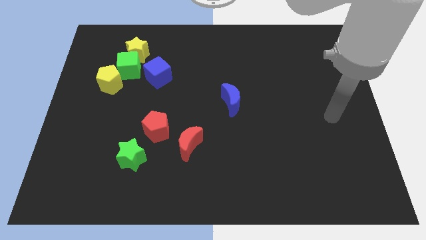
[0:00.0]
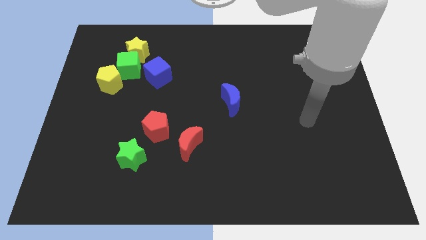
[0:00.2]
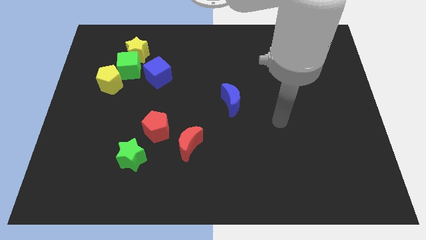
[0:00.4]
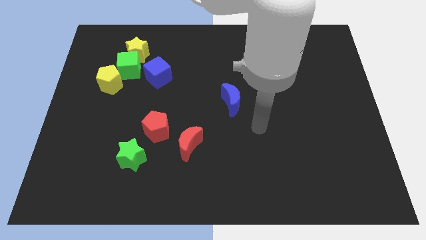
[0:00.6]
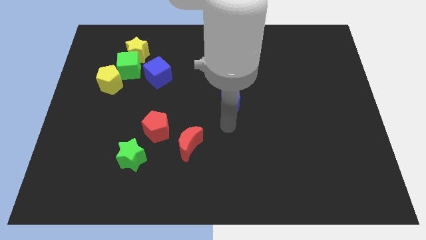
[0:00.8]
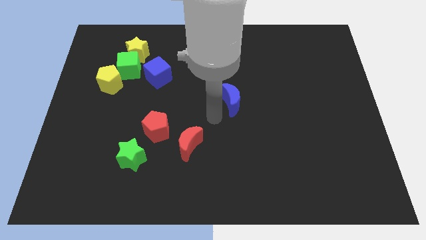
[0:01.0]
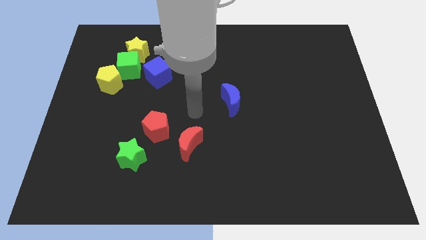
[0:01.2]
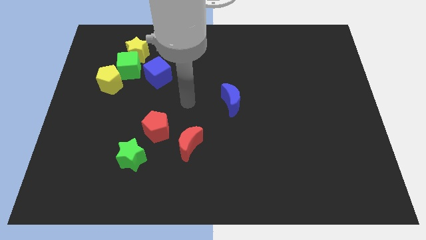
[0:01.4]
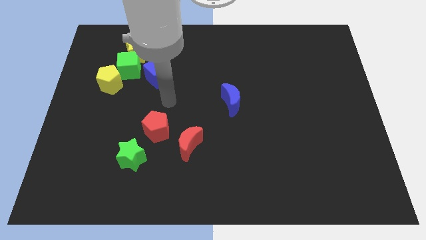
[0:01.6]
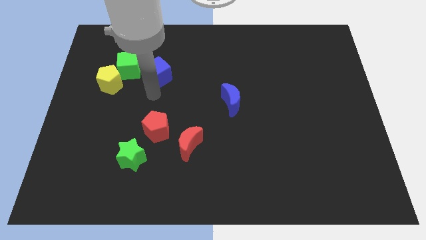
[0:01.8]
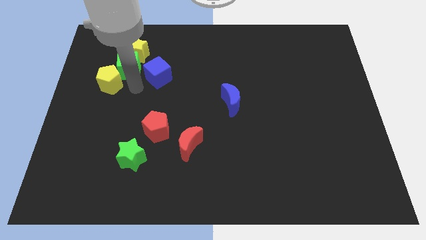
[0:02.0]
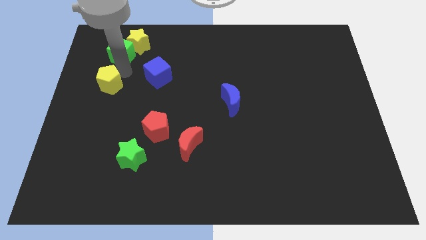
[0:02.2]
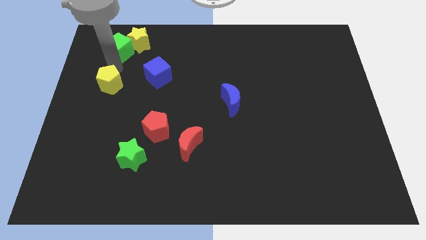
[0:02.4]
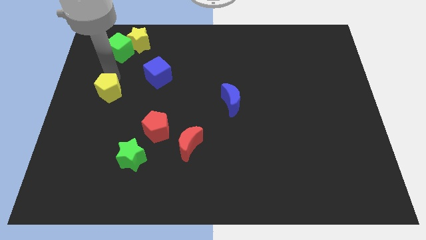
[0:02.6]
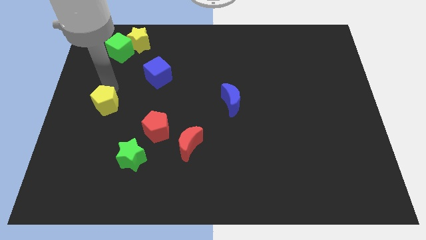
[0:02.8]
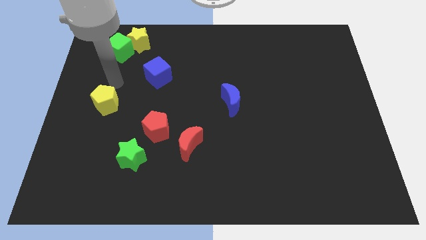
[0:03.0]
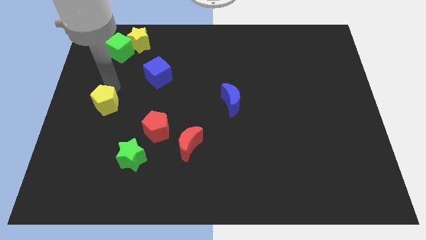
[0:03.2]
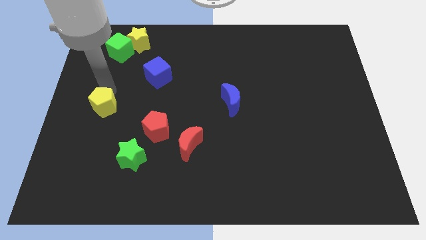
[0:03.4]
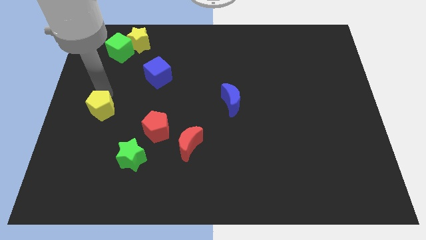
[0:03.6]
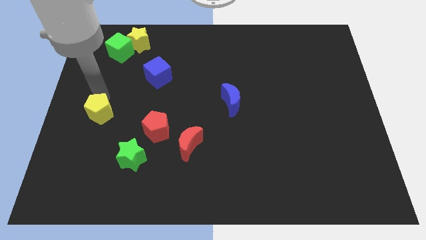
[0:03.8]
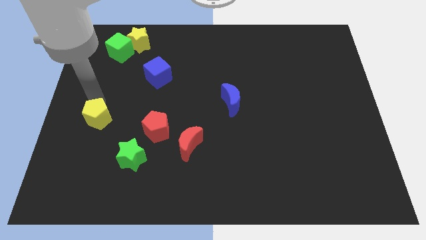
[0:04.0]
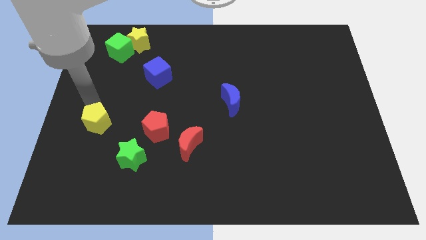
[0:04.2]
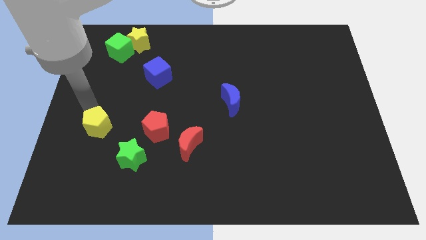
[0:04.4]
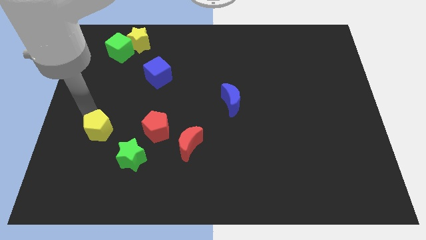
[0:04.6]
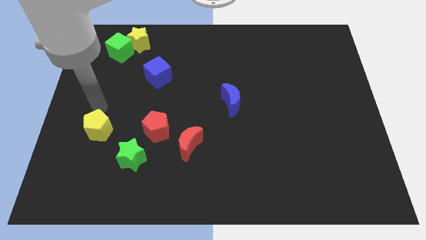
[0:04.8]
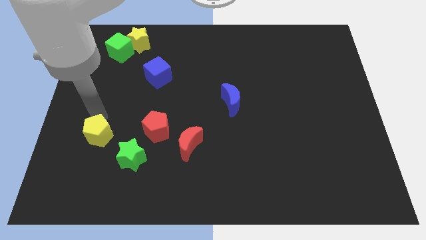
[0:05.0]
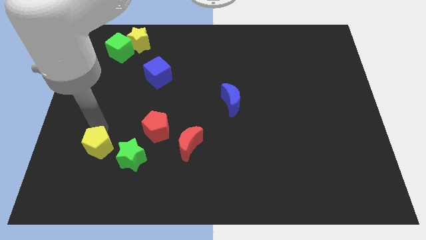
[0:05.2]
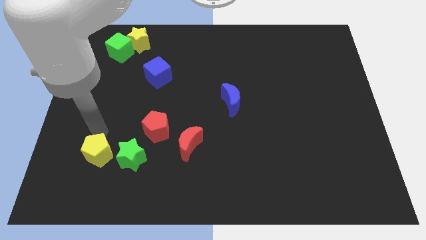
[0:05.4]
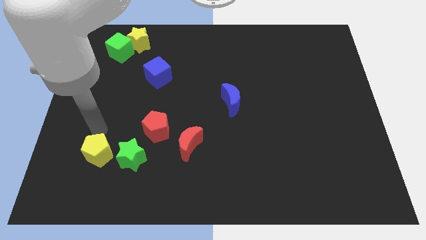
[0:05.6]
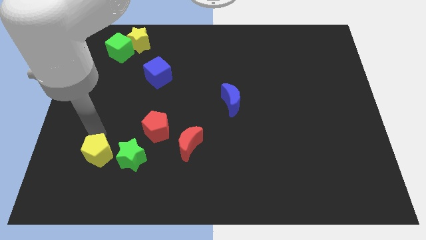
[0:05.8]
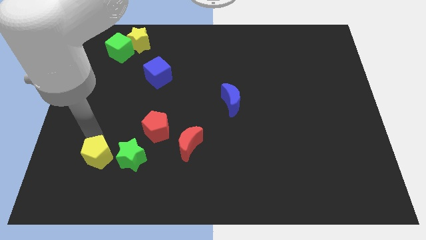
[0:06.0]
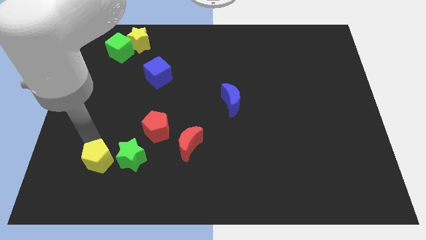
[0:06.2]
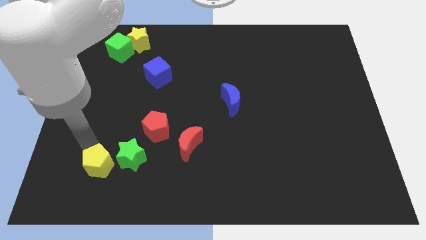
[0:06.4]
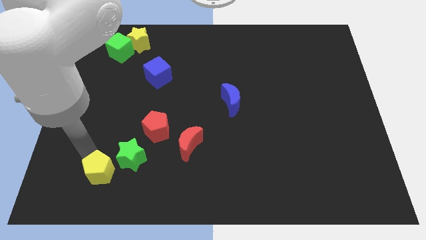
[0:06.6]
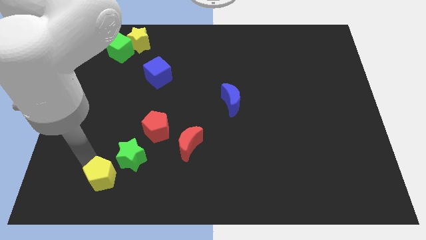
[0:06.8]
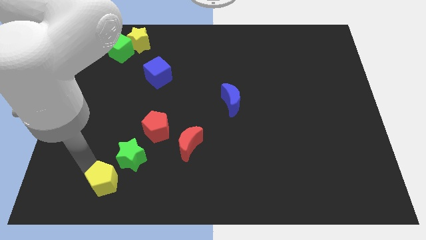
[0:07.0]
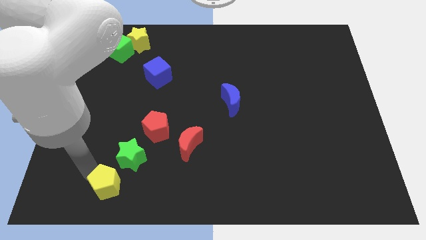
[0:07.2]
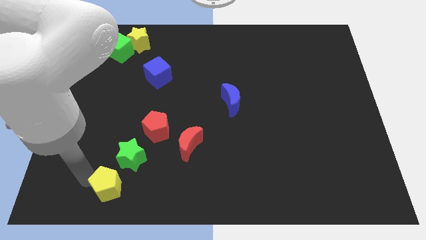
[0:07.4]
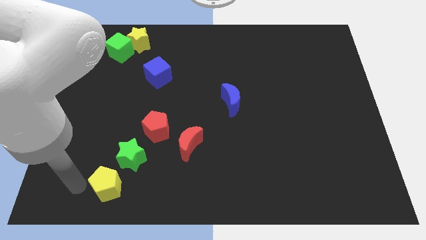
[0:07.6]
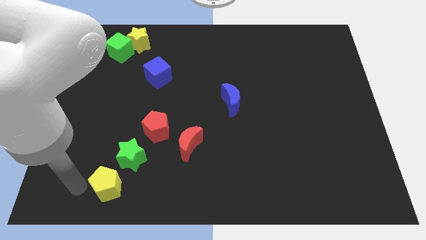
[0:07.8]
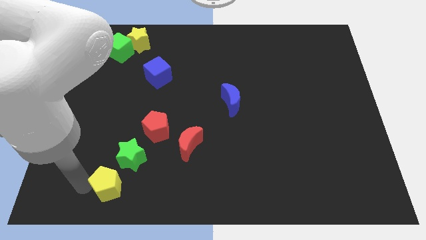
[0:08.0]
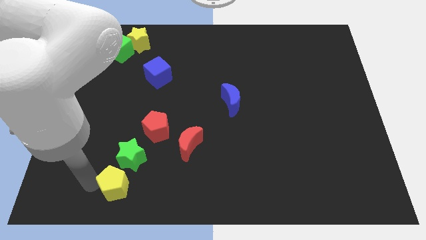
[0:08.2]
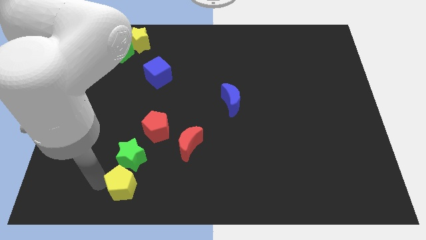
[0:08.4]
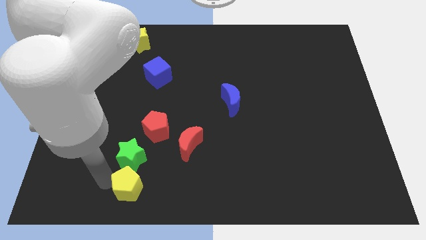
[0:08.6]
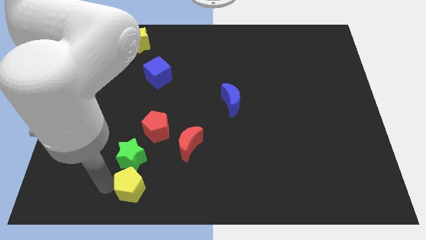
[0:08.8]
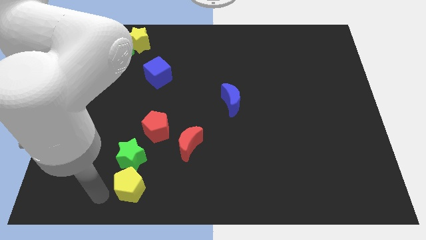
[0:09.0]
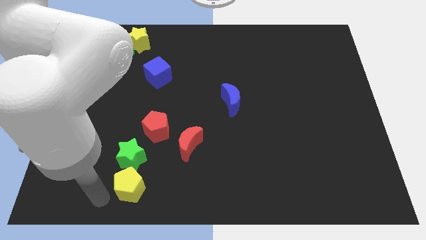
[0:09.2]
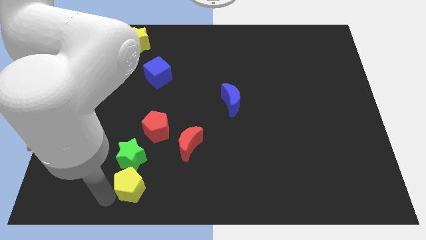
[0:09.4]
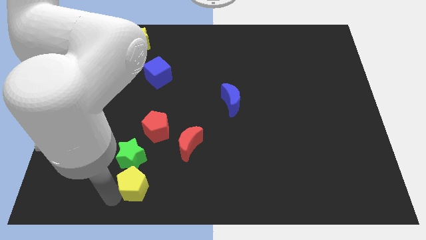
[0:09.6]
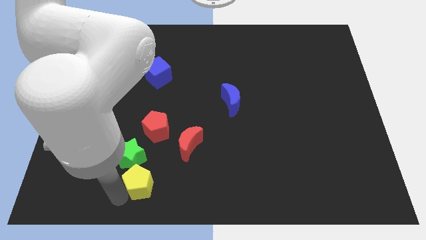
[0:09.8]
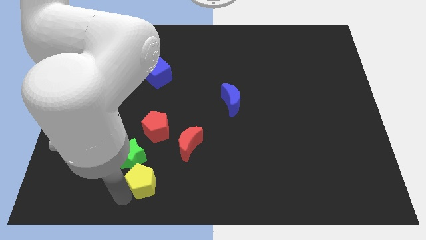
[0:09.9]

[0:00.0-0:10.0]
push the yellow pentagon diagonally down and to the left of the red moon
